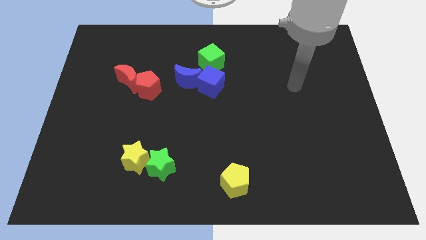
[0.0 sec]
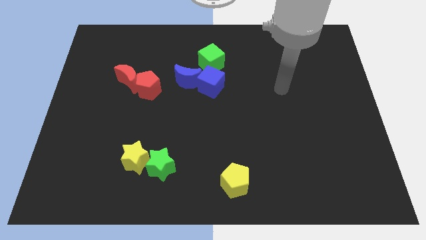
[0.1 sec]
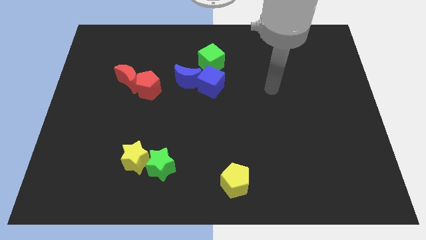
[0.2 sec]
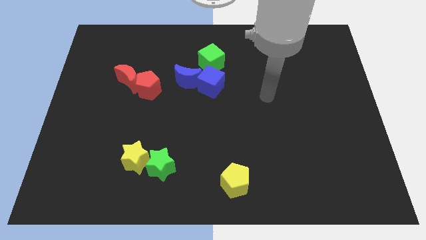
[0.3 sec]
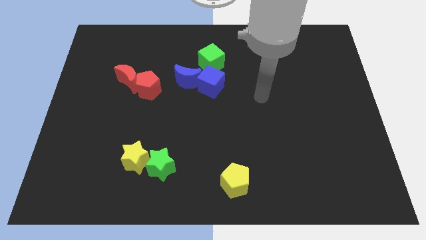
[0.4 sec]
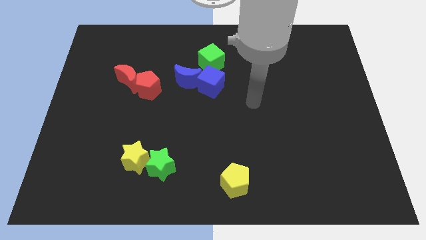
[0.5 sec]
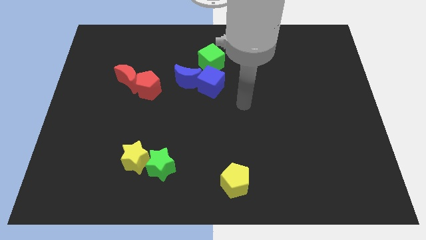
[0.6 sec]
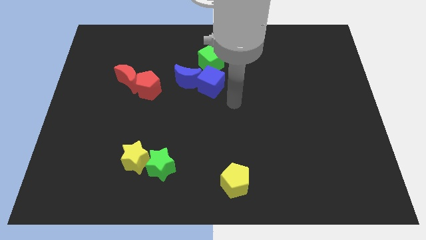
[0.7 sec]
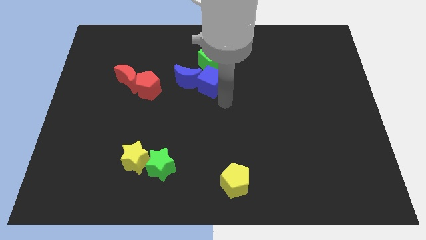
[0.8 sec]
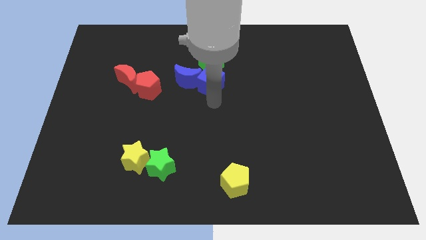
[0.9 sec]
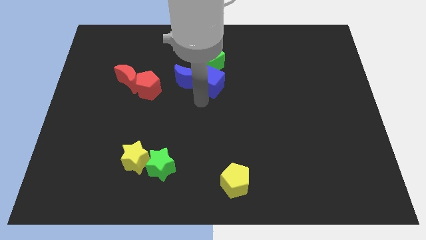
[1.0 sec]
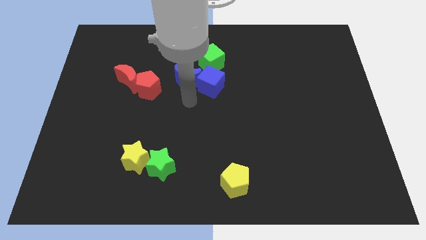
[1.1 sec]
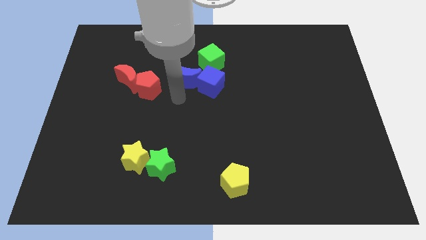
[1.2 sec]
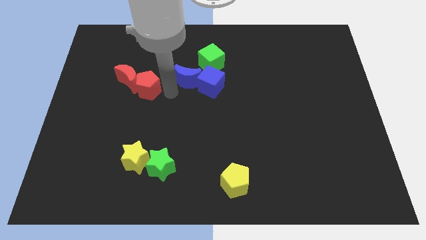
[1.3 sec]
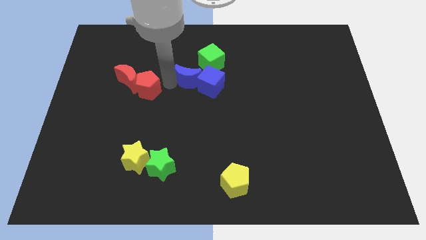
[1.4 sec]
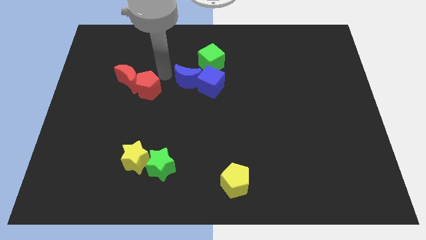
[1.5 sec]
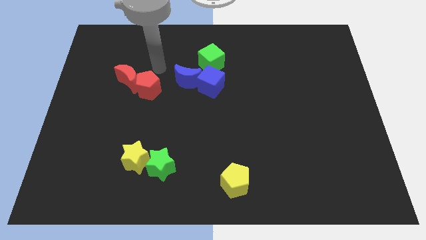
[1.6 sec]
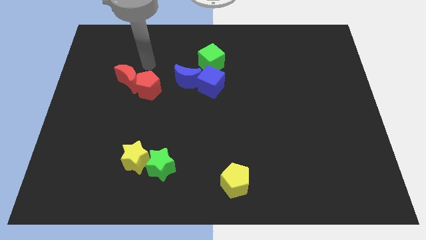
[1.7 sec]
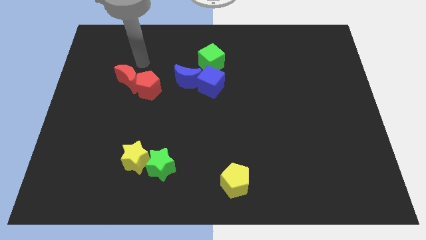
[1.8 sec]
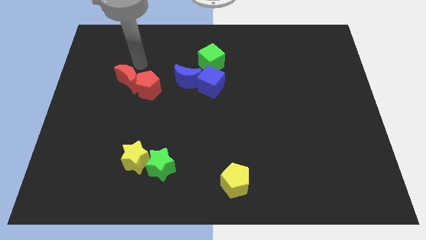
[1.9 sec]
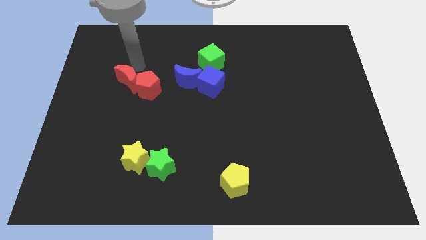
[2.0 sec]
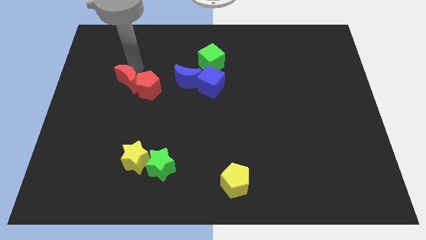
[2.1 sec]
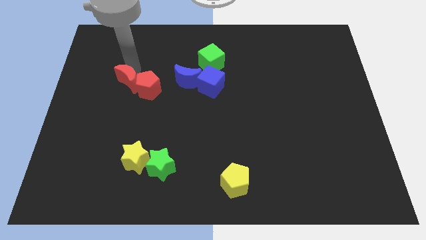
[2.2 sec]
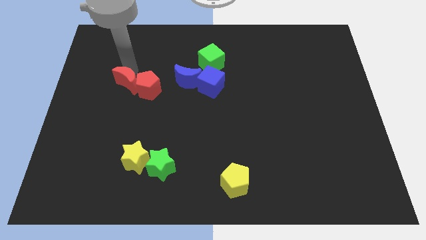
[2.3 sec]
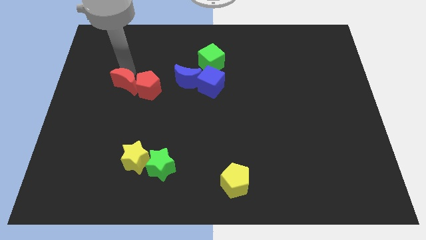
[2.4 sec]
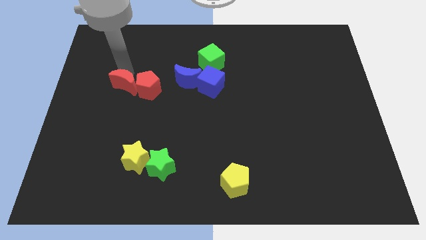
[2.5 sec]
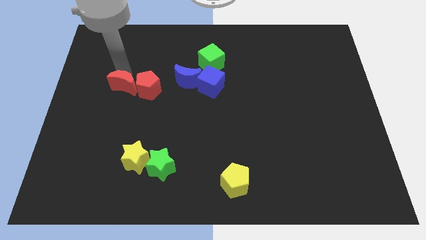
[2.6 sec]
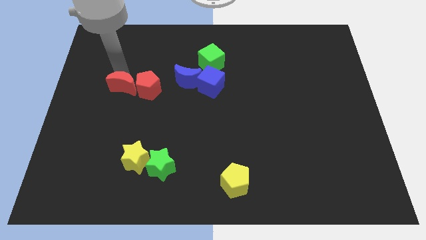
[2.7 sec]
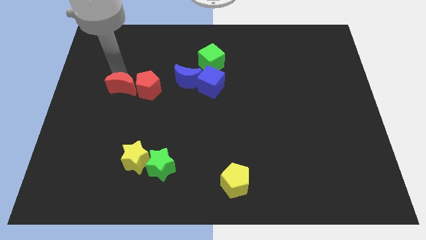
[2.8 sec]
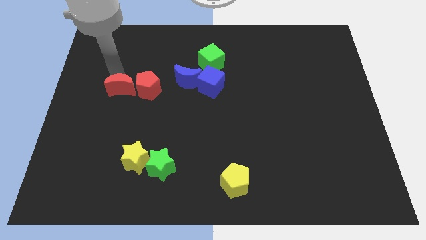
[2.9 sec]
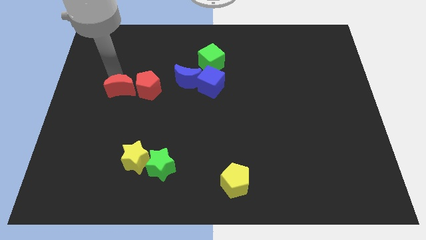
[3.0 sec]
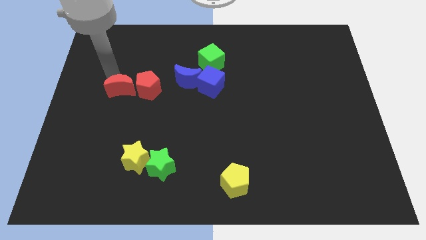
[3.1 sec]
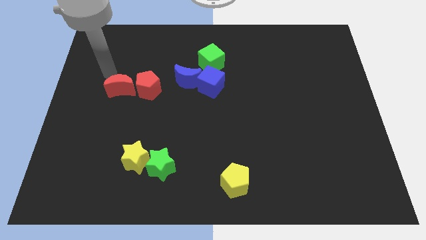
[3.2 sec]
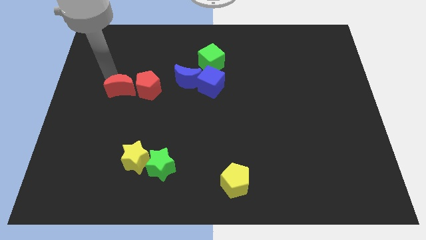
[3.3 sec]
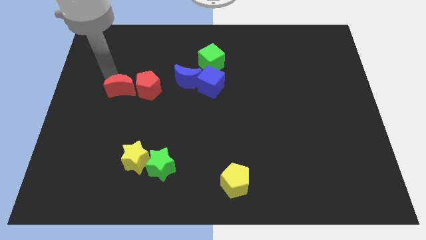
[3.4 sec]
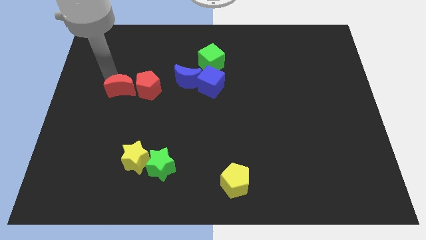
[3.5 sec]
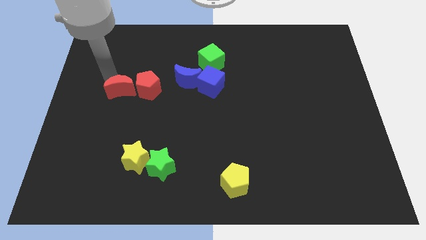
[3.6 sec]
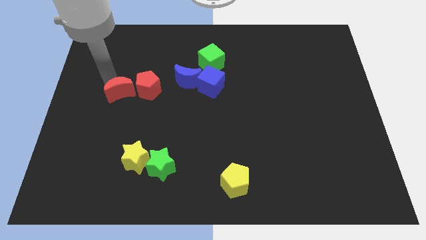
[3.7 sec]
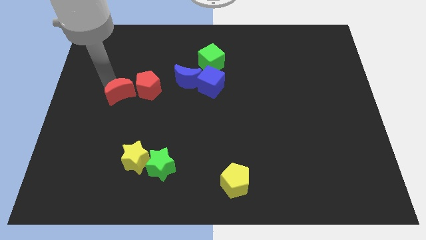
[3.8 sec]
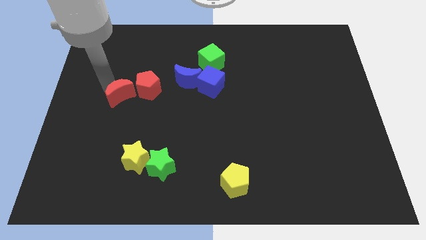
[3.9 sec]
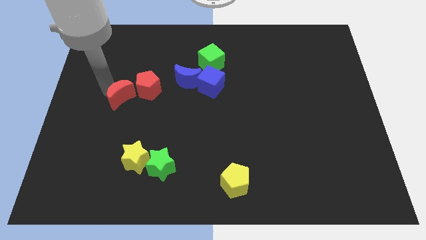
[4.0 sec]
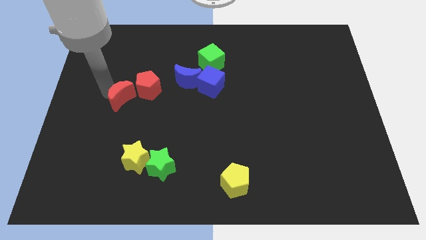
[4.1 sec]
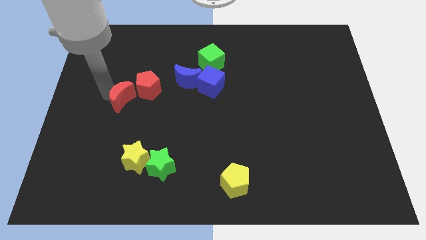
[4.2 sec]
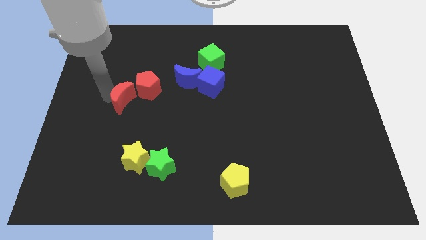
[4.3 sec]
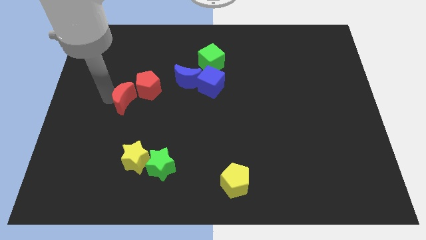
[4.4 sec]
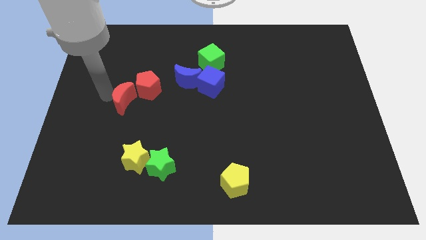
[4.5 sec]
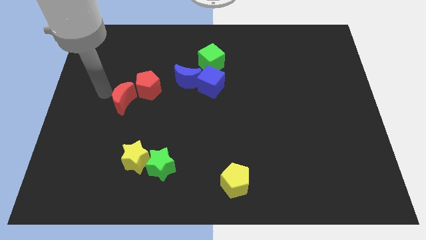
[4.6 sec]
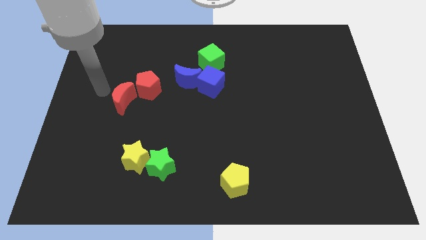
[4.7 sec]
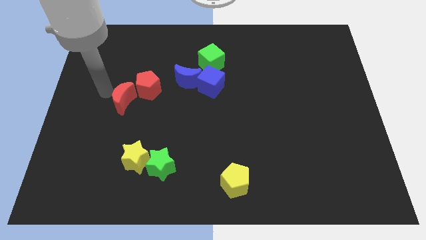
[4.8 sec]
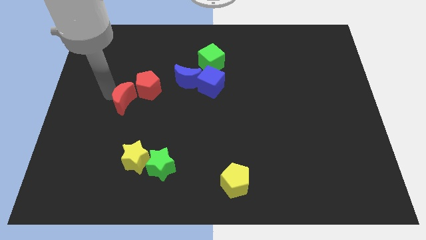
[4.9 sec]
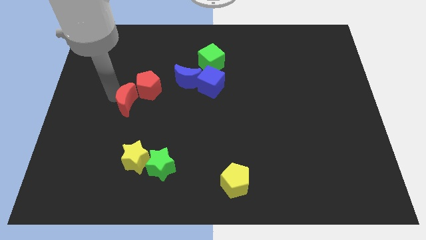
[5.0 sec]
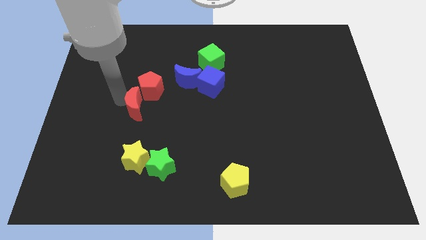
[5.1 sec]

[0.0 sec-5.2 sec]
slightly push the red moon down and then to the right

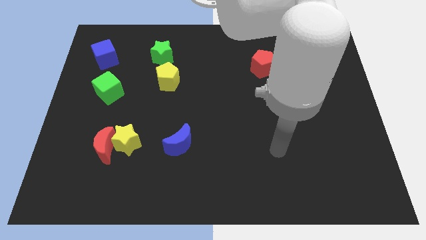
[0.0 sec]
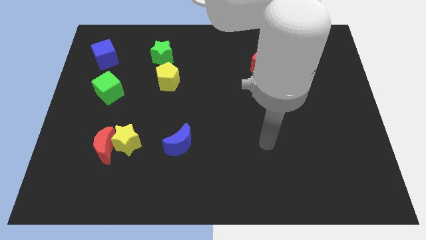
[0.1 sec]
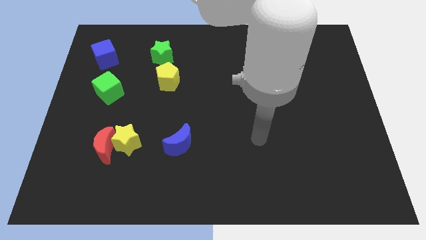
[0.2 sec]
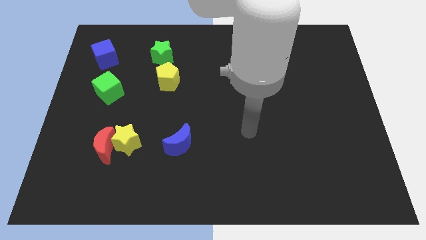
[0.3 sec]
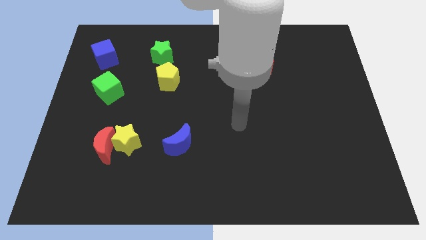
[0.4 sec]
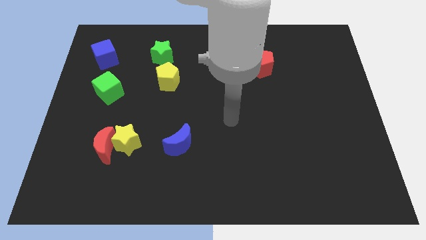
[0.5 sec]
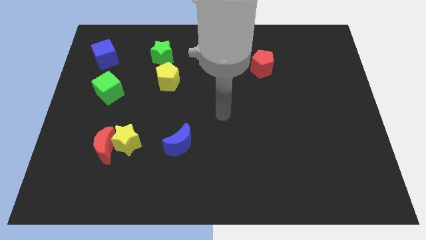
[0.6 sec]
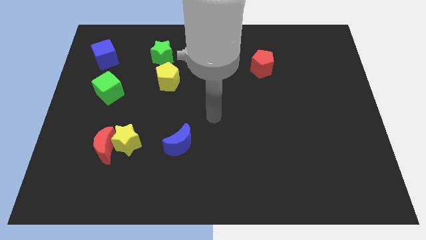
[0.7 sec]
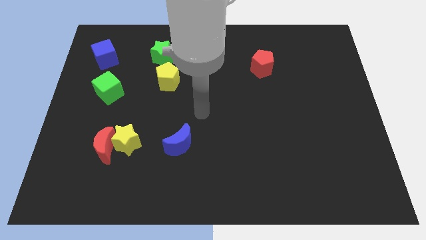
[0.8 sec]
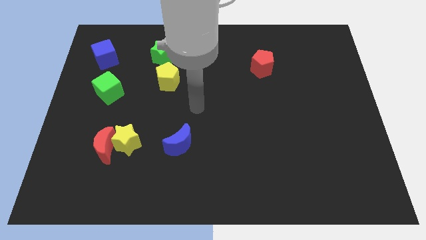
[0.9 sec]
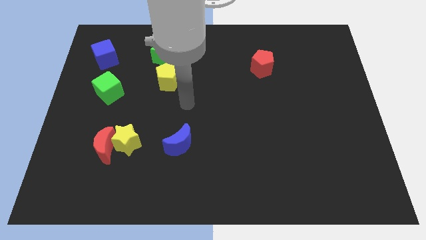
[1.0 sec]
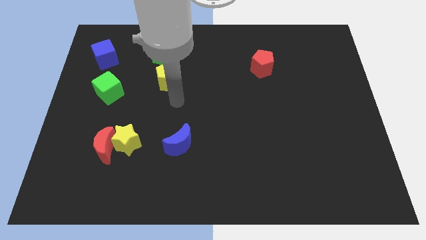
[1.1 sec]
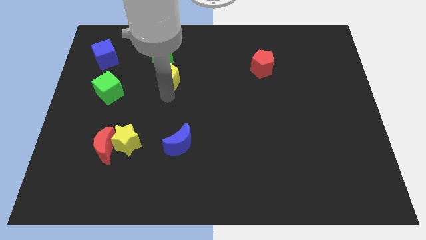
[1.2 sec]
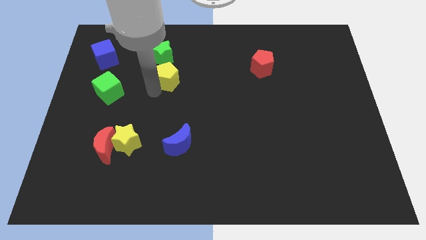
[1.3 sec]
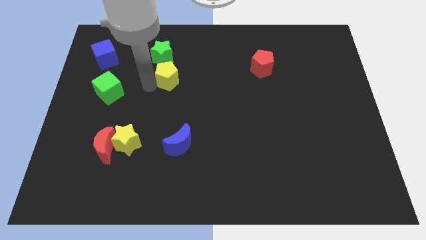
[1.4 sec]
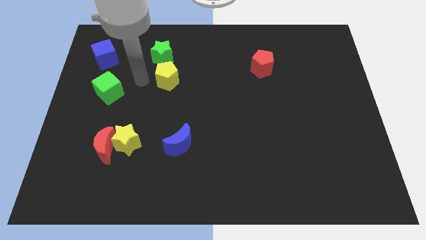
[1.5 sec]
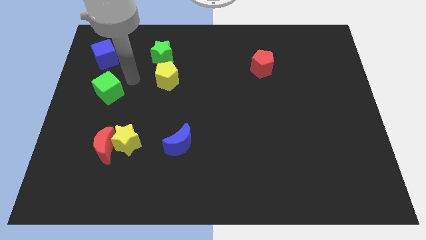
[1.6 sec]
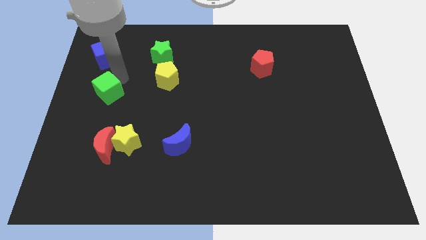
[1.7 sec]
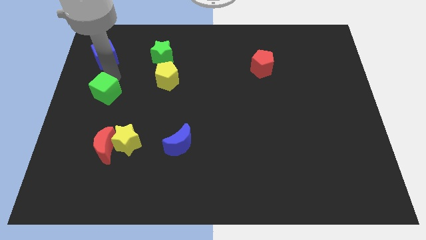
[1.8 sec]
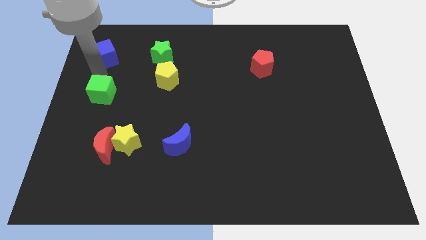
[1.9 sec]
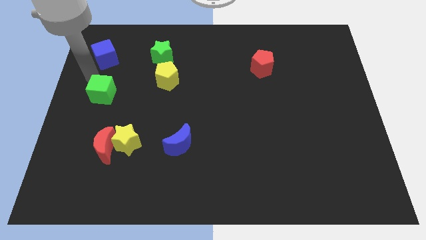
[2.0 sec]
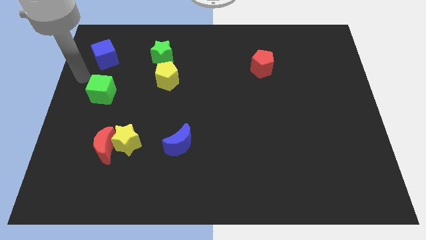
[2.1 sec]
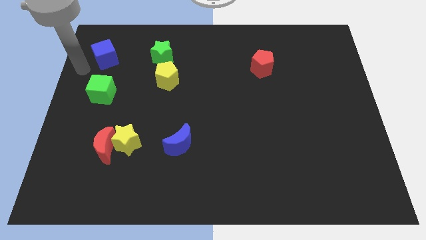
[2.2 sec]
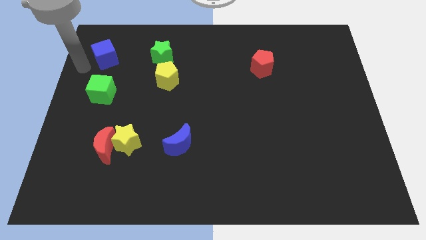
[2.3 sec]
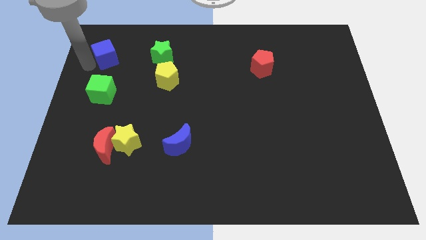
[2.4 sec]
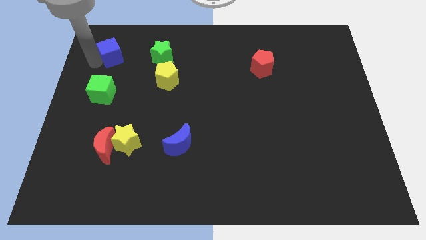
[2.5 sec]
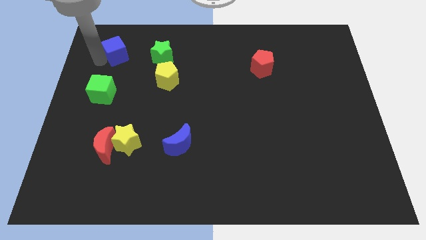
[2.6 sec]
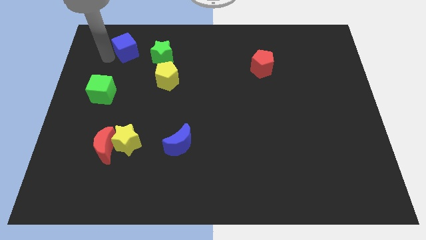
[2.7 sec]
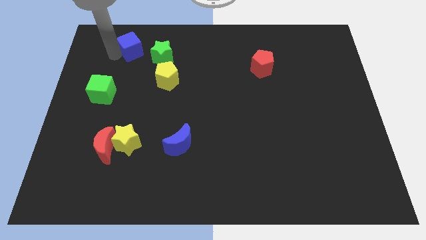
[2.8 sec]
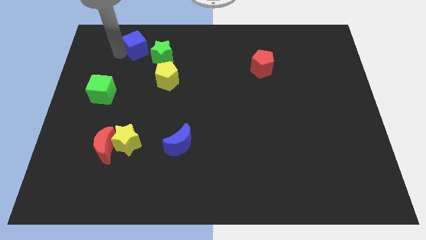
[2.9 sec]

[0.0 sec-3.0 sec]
slide the blue cube to the right a little
